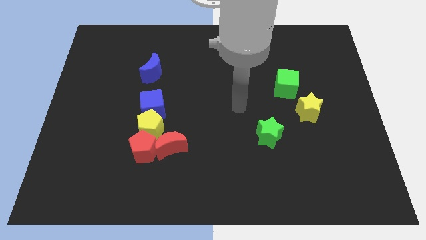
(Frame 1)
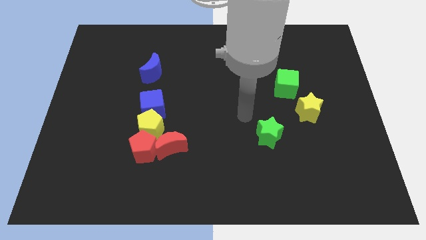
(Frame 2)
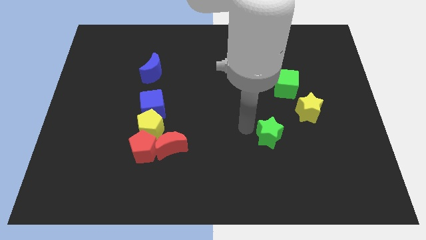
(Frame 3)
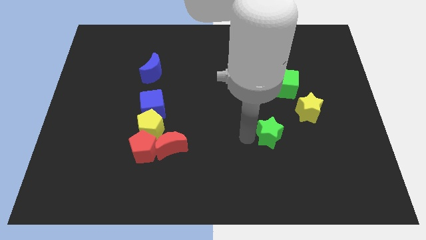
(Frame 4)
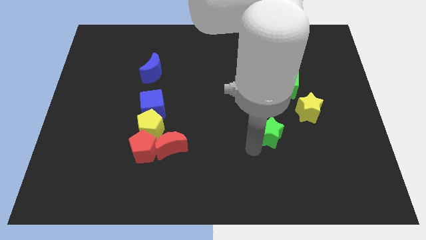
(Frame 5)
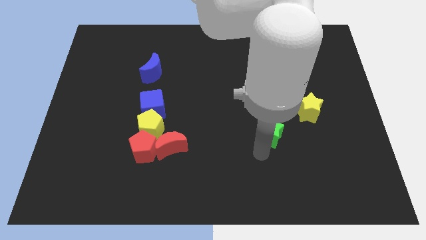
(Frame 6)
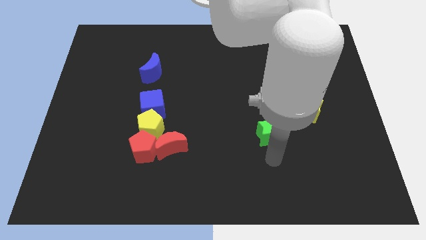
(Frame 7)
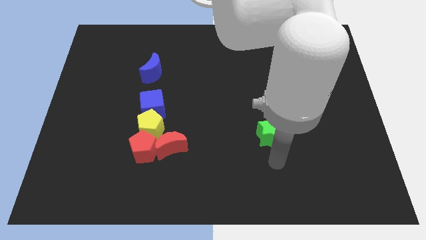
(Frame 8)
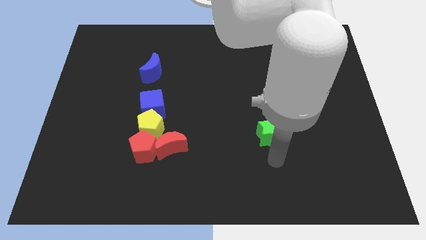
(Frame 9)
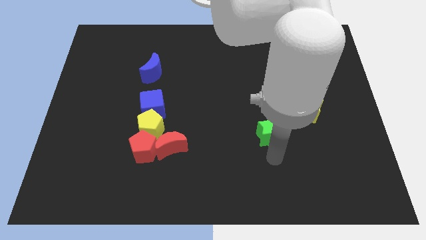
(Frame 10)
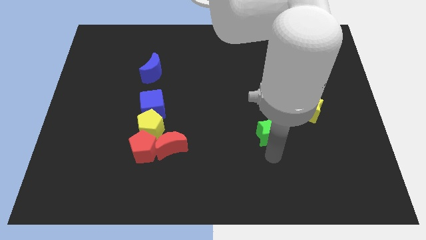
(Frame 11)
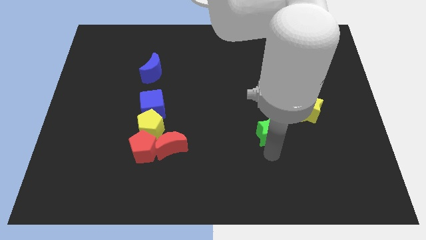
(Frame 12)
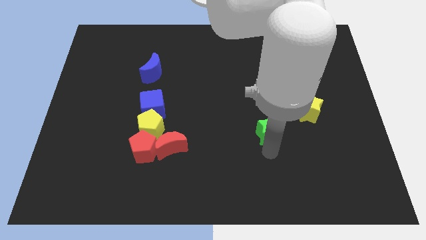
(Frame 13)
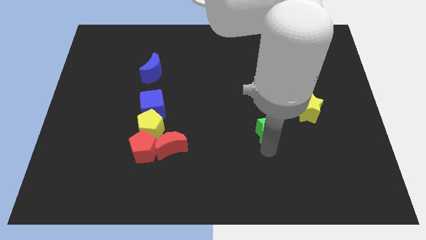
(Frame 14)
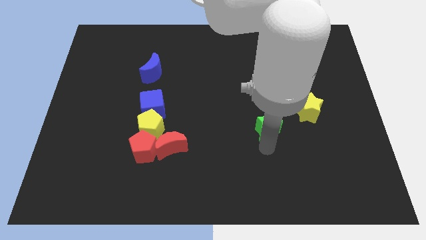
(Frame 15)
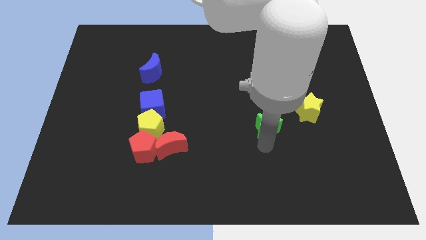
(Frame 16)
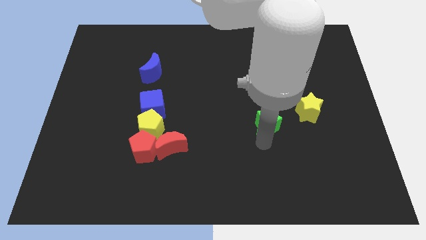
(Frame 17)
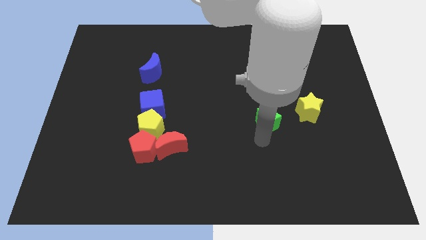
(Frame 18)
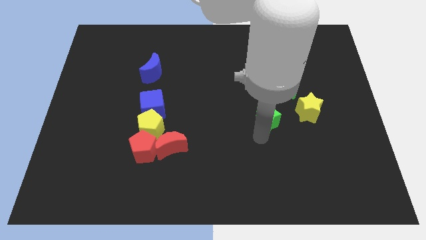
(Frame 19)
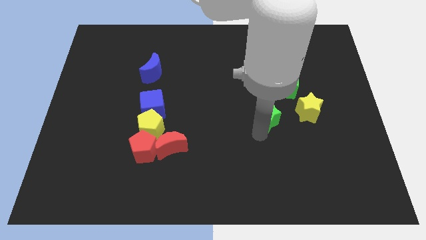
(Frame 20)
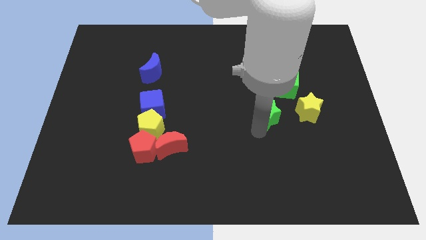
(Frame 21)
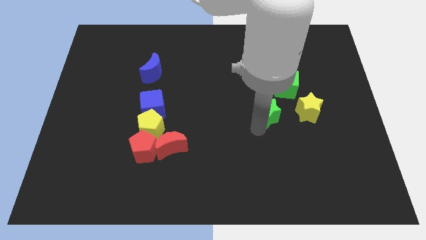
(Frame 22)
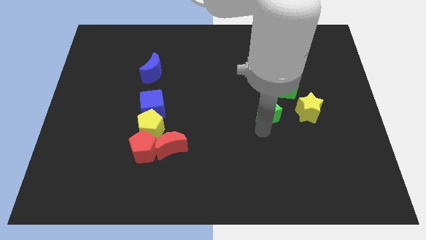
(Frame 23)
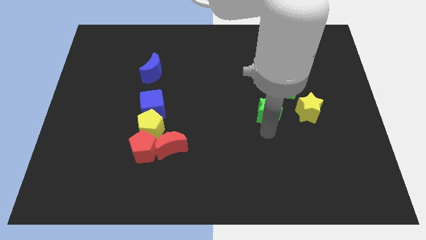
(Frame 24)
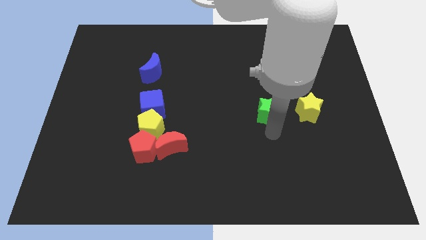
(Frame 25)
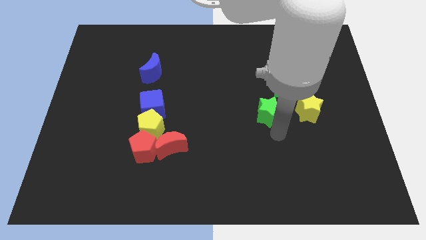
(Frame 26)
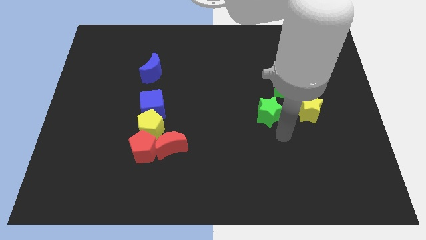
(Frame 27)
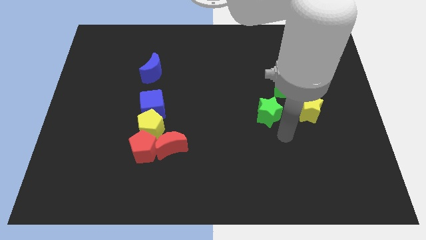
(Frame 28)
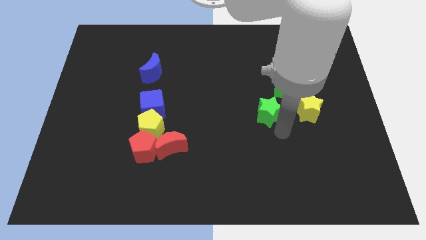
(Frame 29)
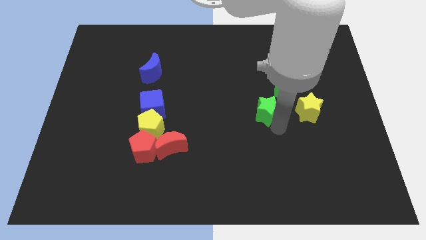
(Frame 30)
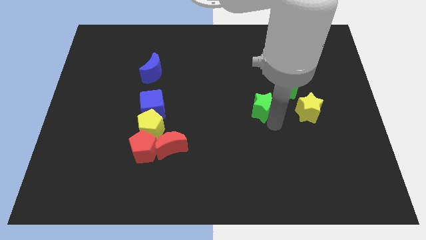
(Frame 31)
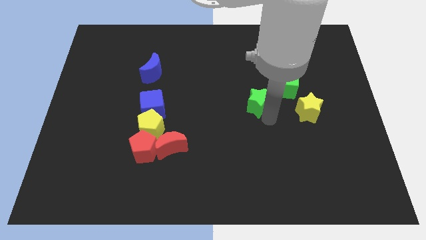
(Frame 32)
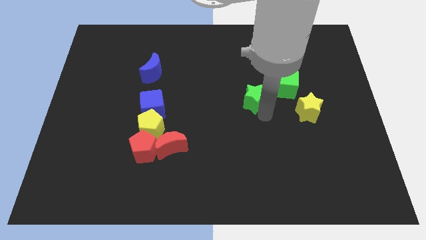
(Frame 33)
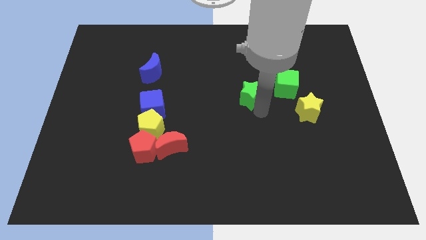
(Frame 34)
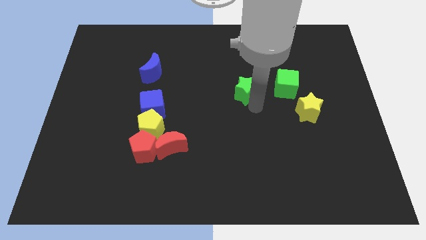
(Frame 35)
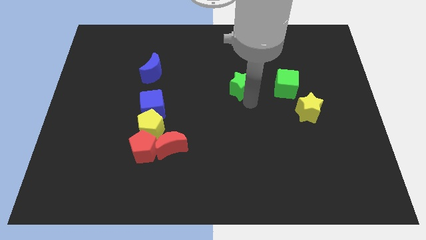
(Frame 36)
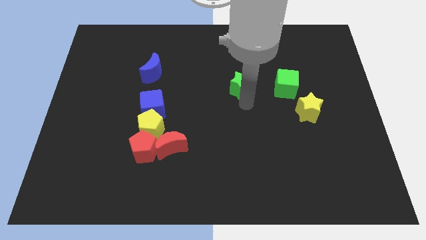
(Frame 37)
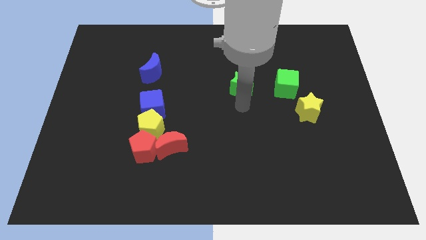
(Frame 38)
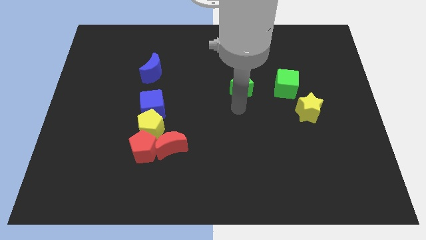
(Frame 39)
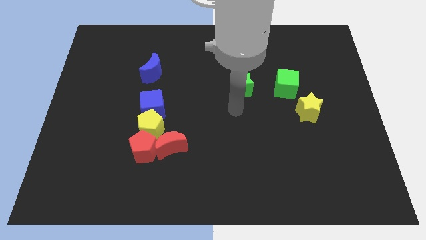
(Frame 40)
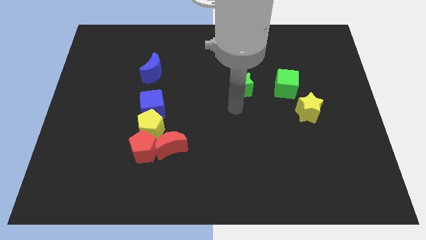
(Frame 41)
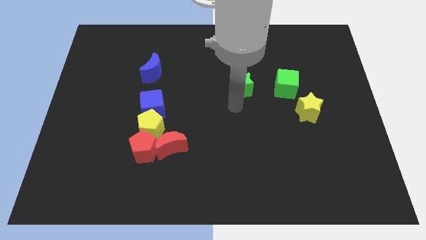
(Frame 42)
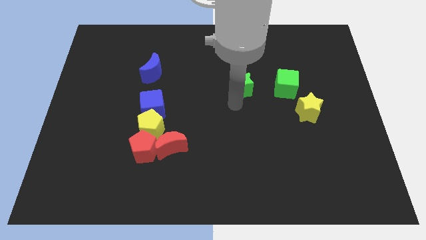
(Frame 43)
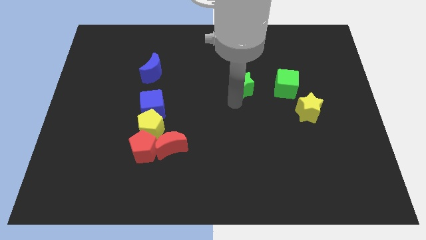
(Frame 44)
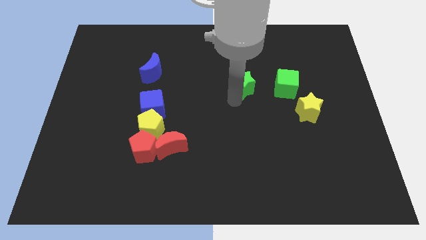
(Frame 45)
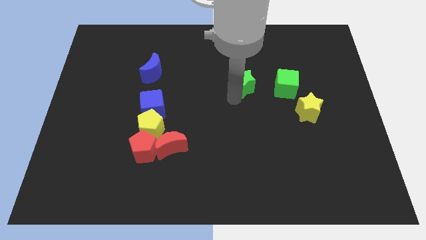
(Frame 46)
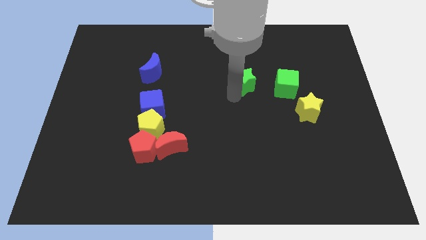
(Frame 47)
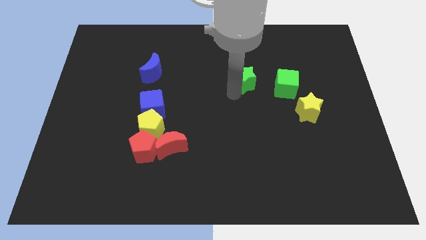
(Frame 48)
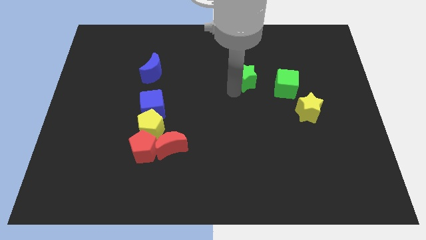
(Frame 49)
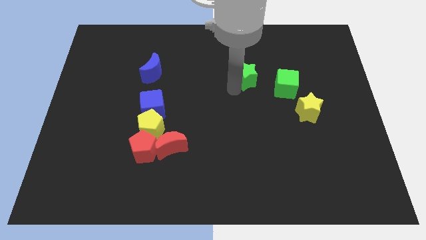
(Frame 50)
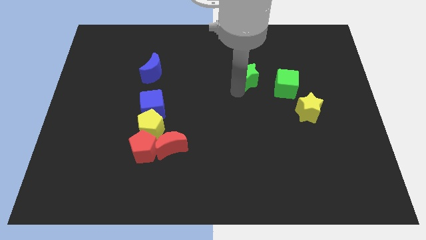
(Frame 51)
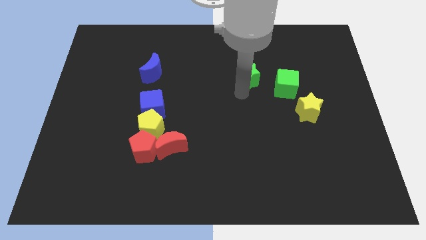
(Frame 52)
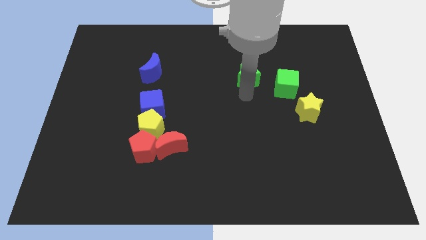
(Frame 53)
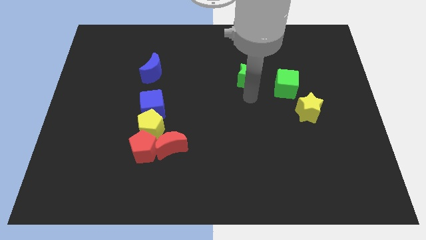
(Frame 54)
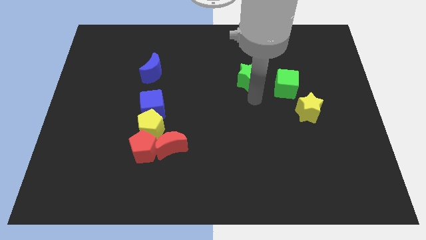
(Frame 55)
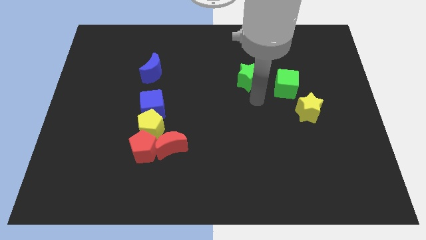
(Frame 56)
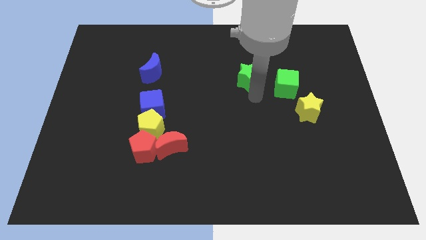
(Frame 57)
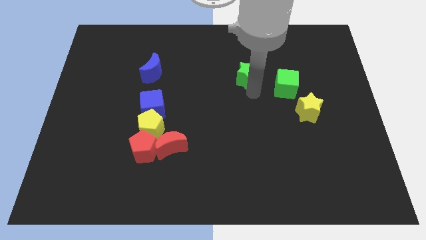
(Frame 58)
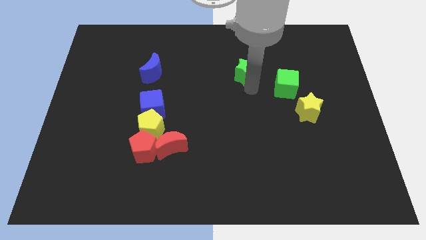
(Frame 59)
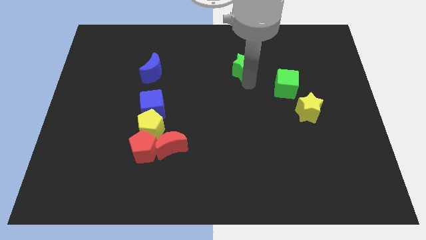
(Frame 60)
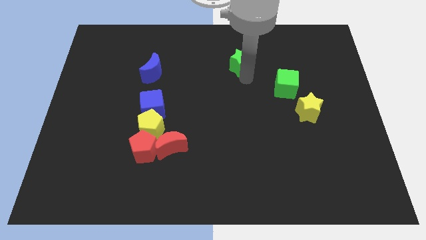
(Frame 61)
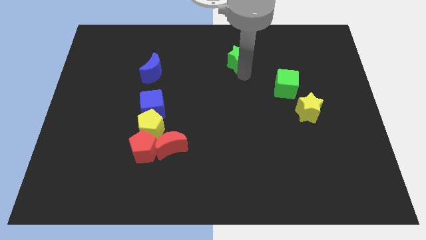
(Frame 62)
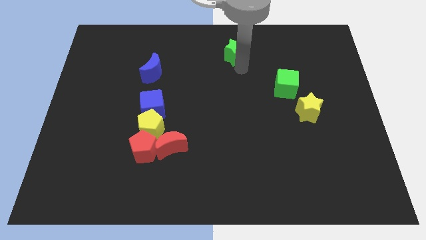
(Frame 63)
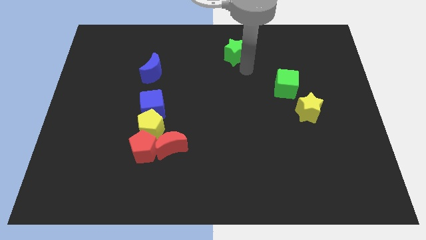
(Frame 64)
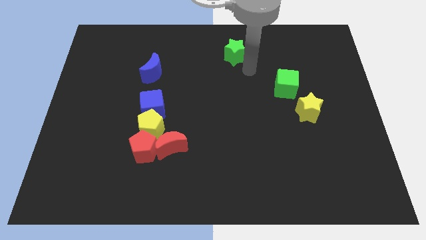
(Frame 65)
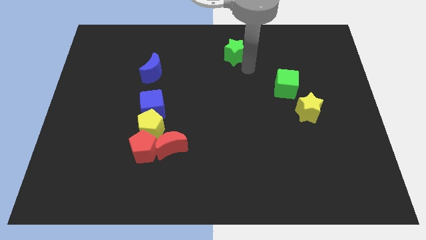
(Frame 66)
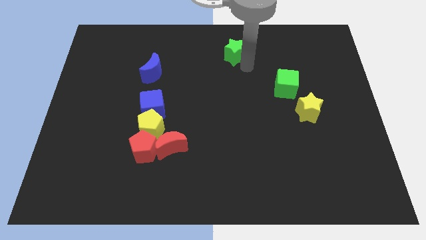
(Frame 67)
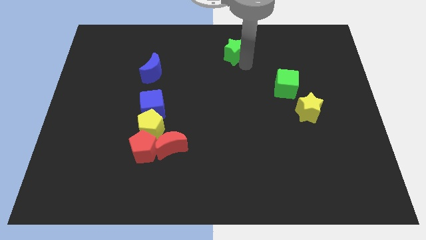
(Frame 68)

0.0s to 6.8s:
slide the green star to the top side
